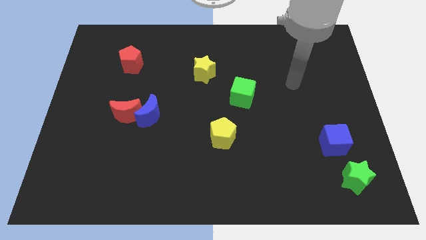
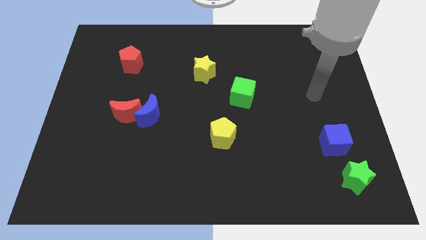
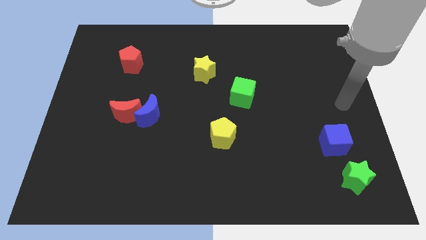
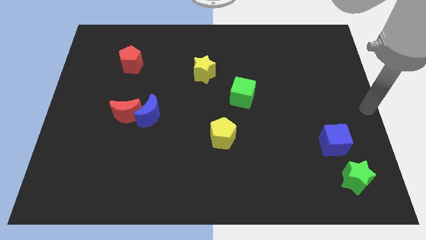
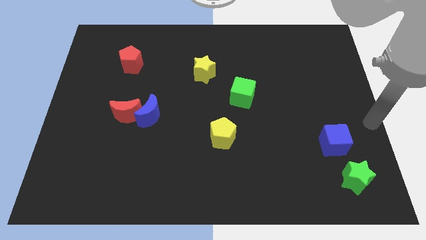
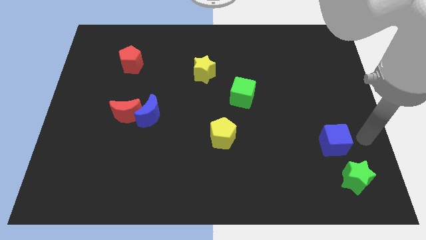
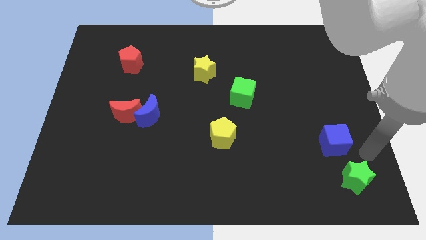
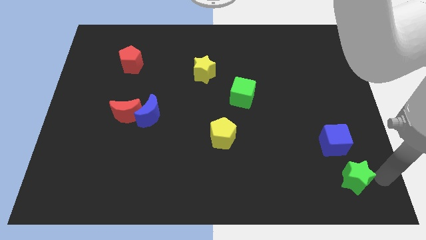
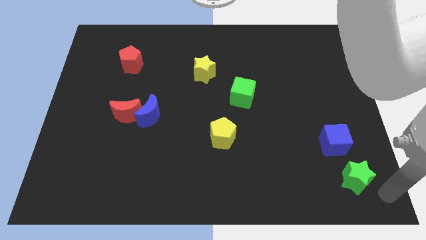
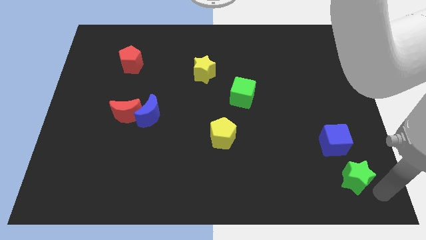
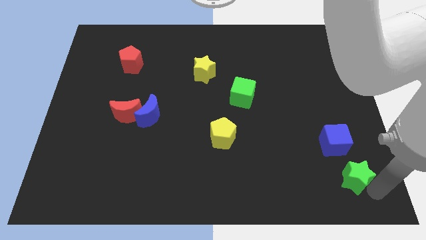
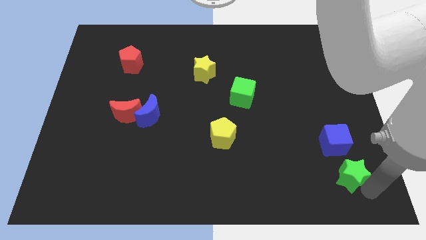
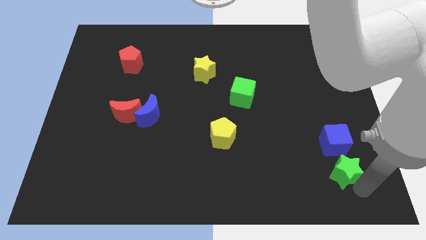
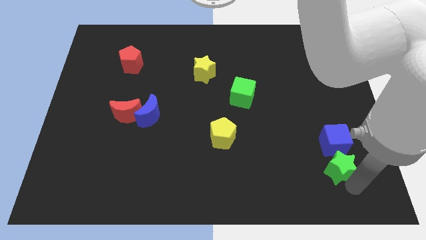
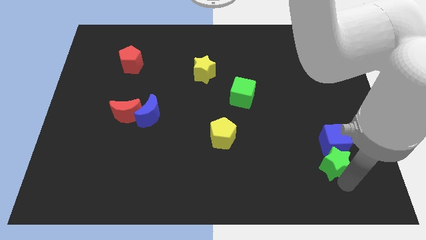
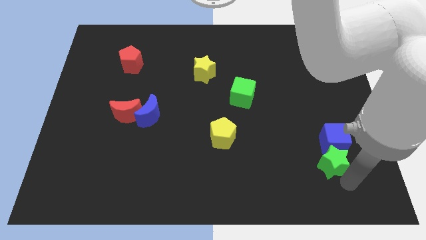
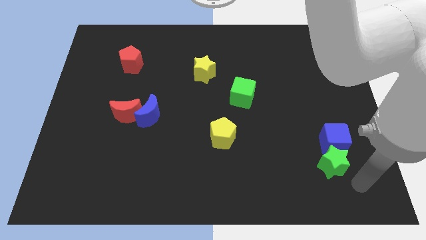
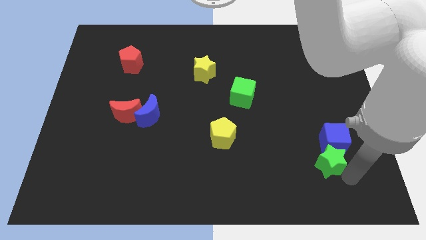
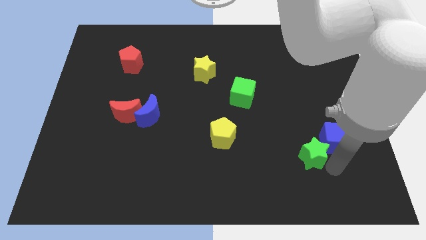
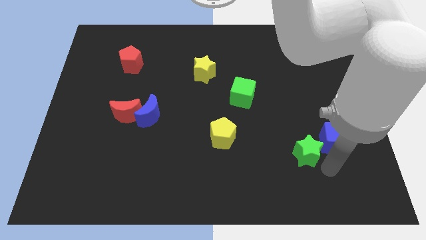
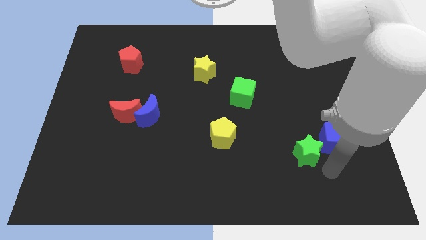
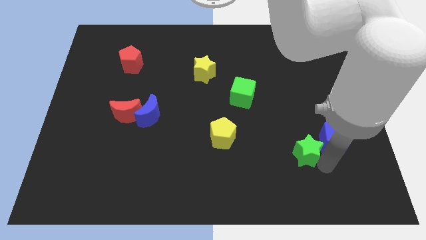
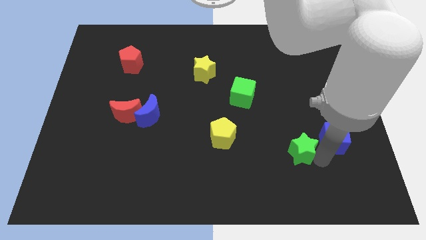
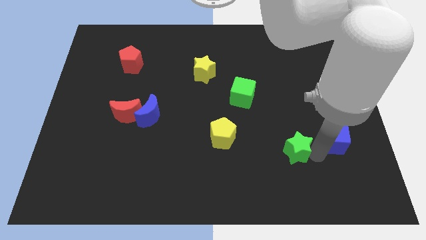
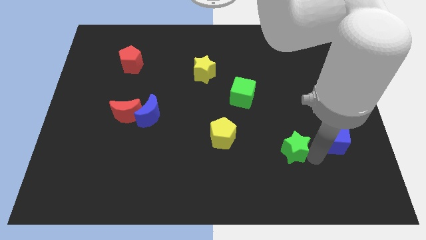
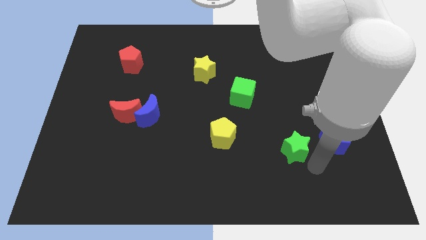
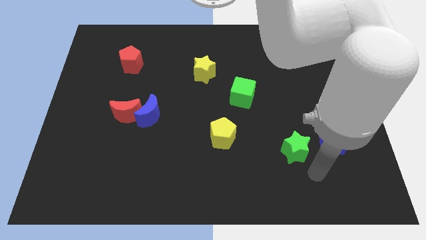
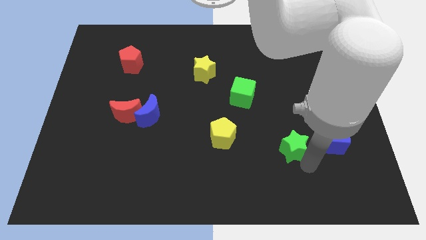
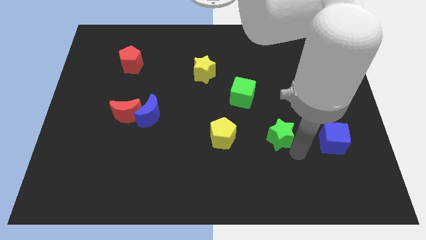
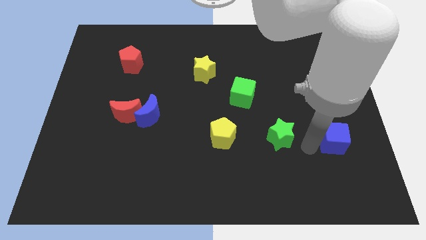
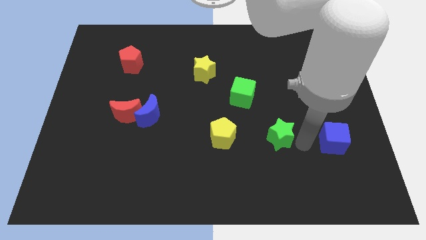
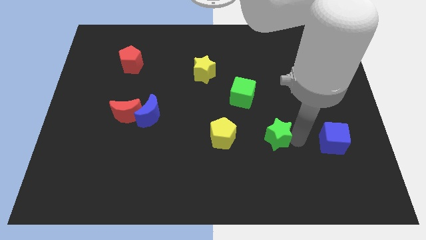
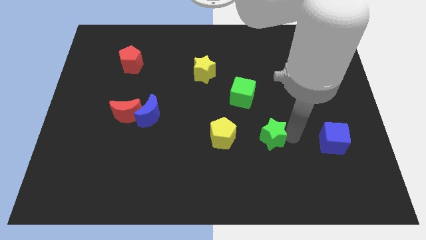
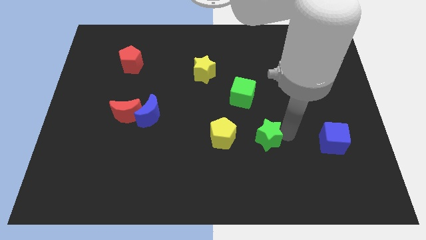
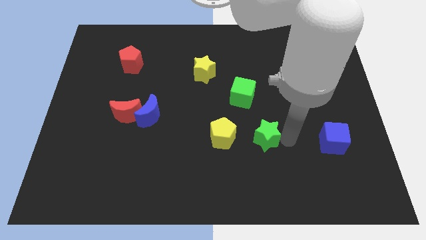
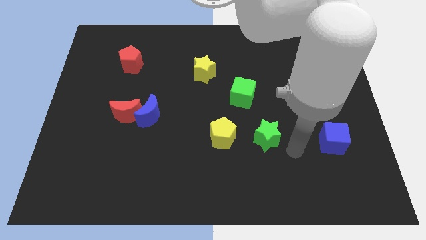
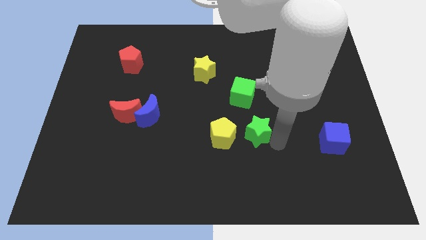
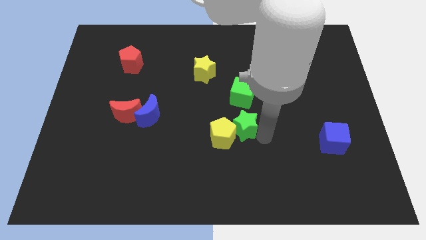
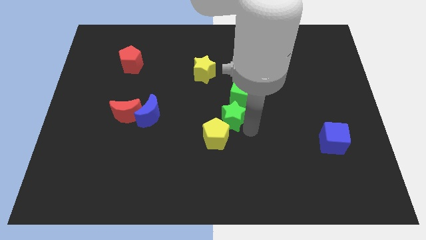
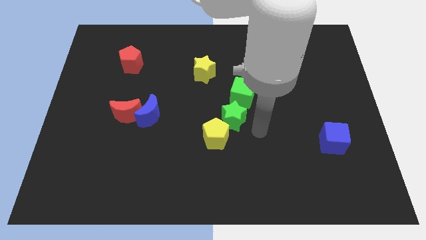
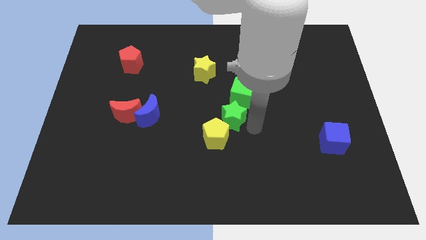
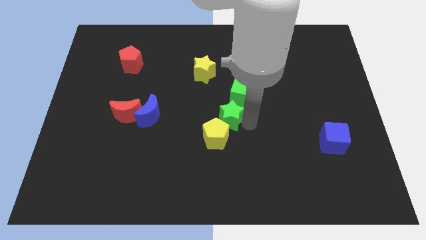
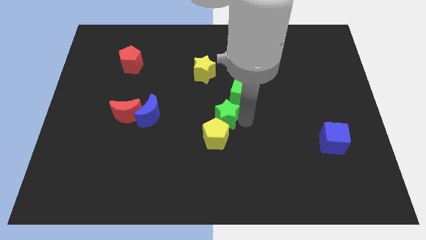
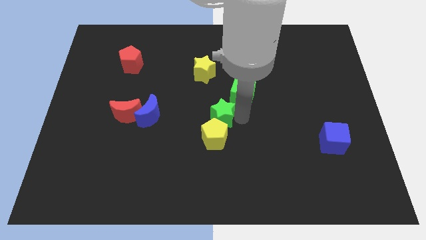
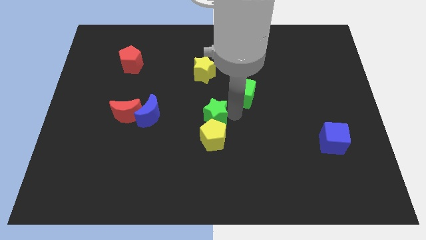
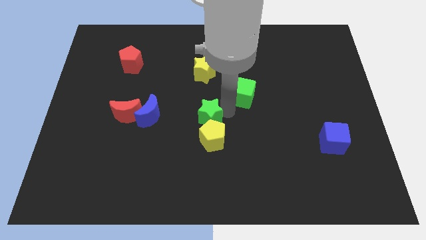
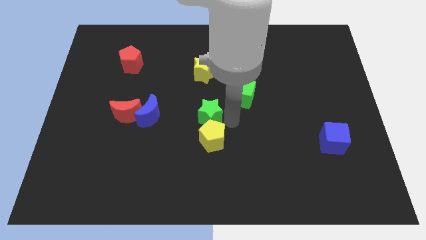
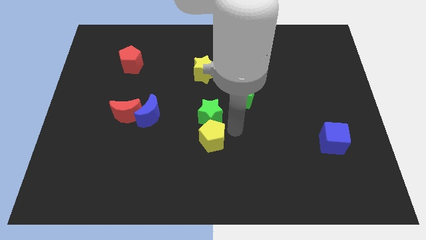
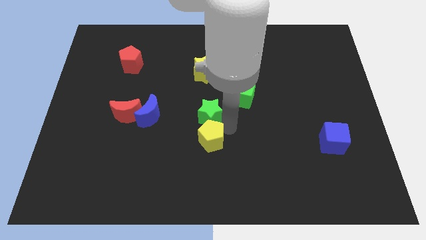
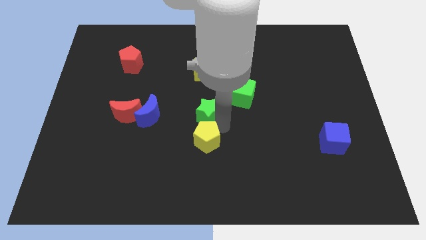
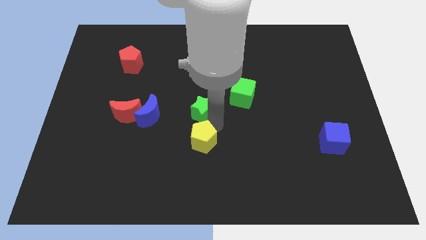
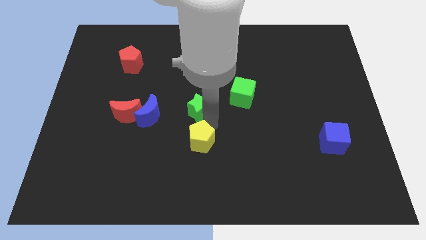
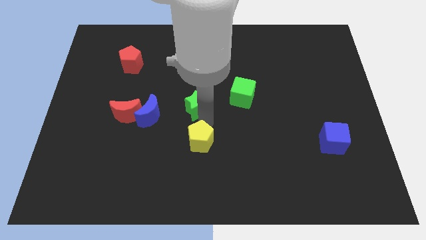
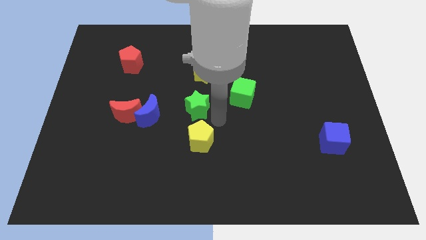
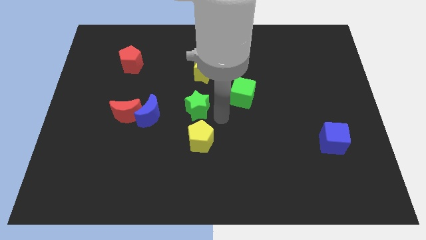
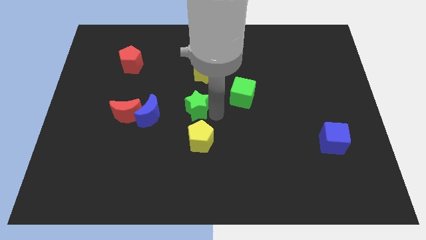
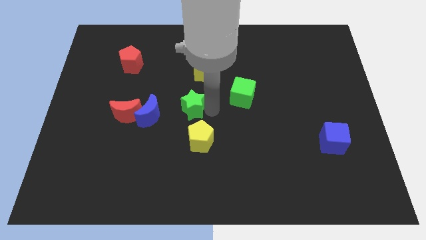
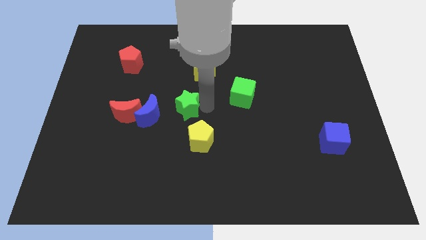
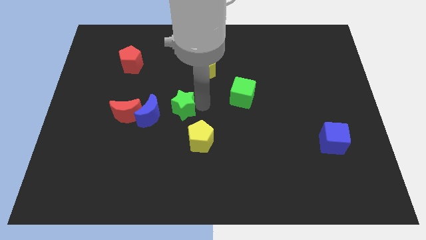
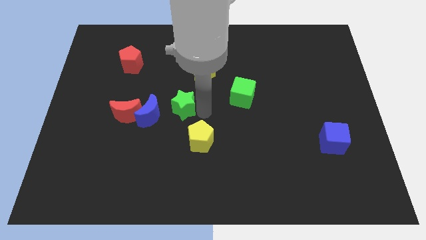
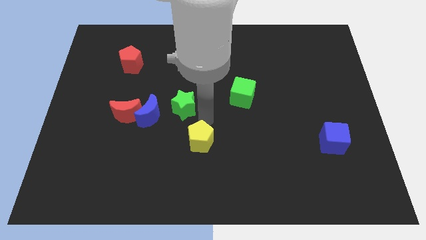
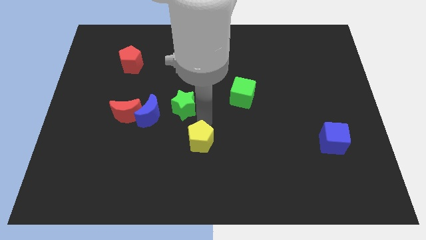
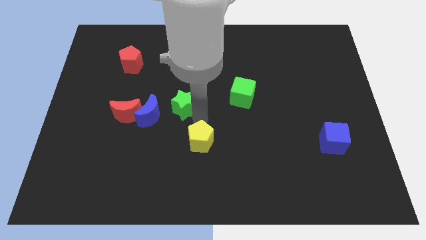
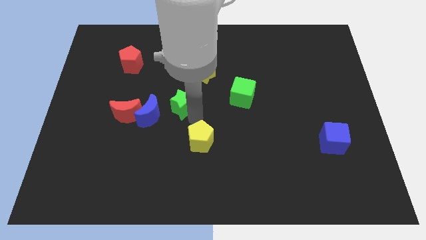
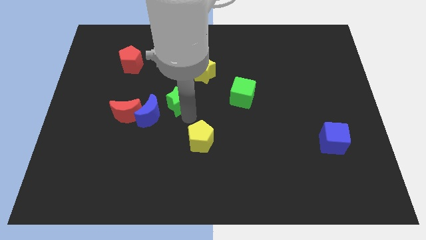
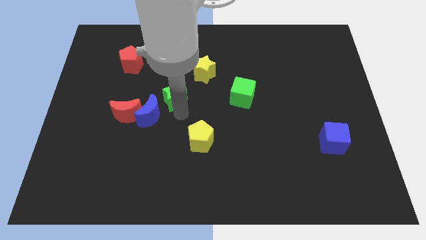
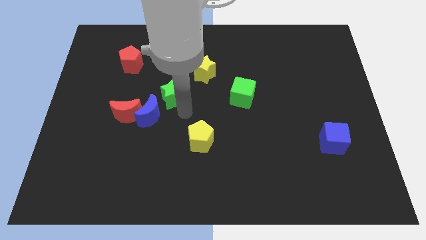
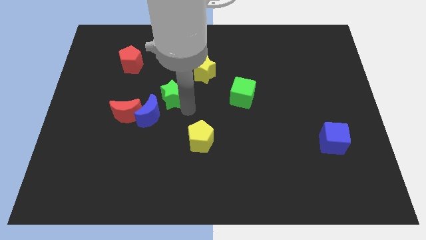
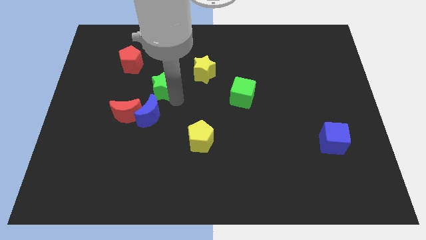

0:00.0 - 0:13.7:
put the green star diagonally down and to the right of the red pentagon
